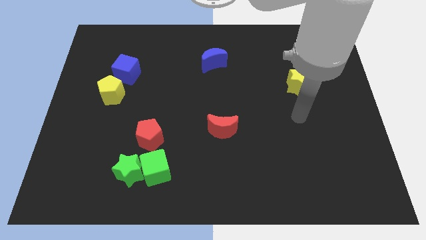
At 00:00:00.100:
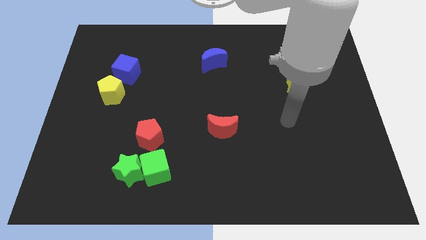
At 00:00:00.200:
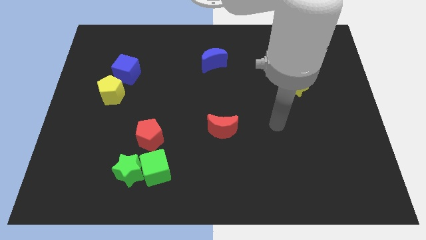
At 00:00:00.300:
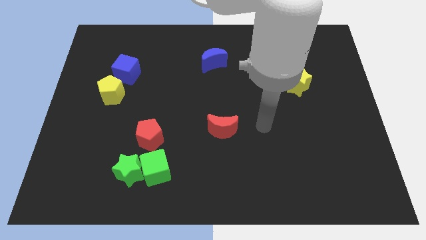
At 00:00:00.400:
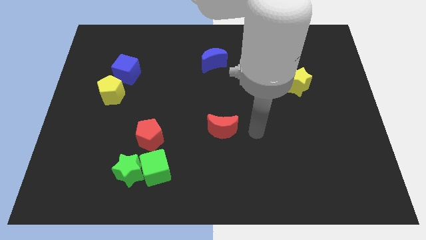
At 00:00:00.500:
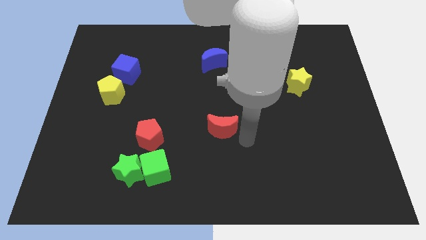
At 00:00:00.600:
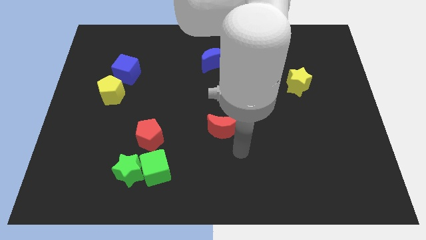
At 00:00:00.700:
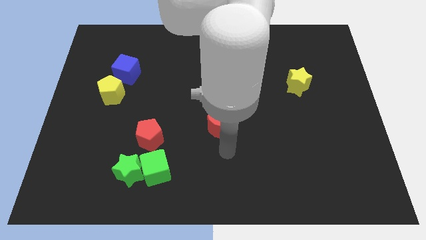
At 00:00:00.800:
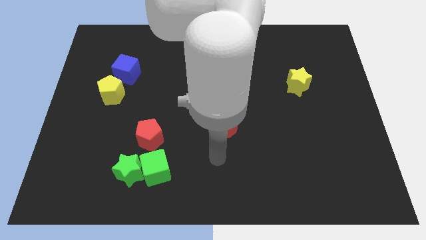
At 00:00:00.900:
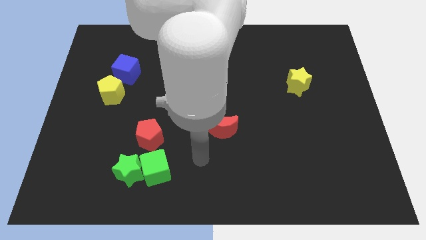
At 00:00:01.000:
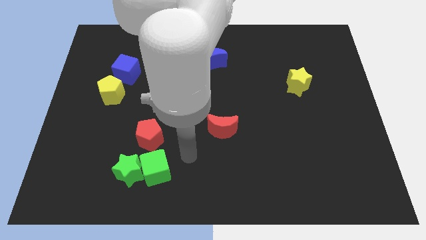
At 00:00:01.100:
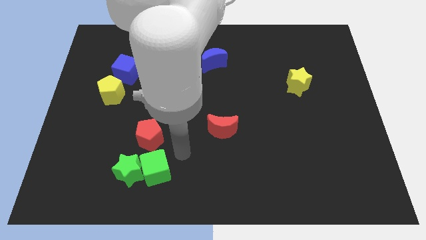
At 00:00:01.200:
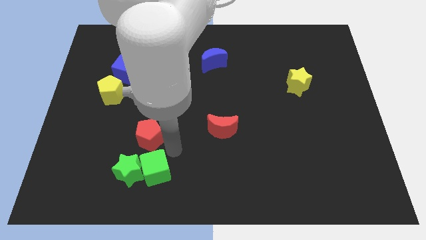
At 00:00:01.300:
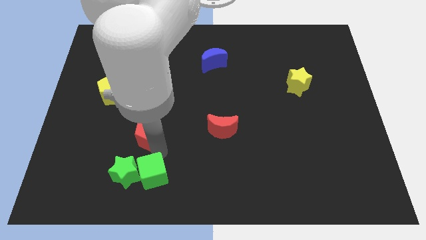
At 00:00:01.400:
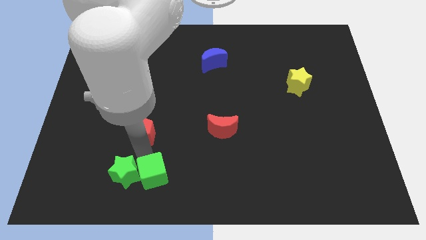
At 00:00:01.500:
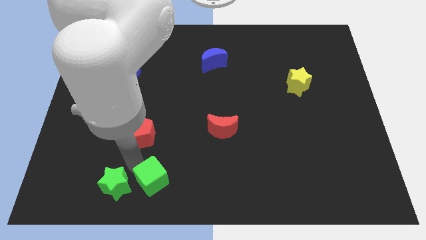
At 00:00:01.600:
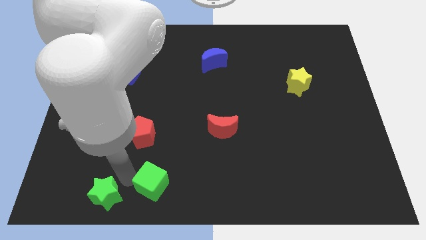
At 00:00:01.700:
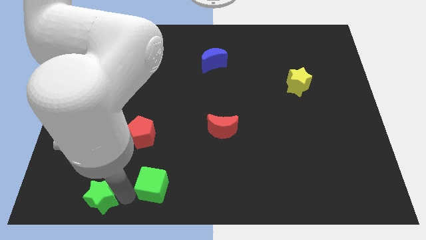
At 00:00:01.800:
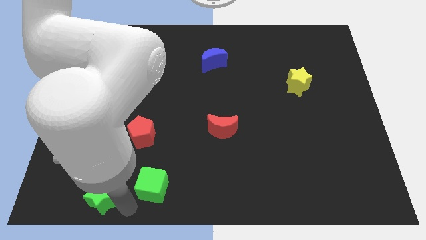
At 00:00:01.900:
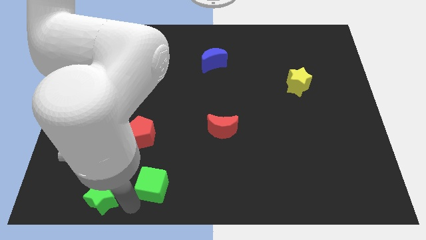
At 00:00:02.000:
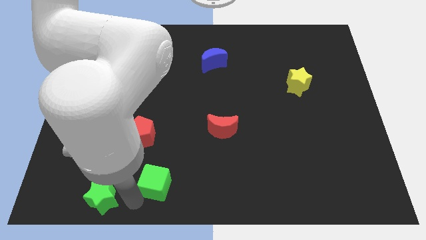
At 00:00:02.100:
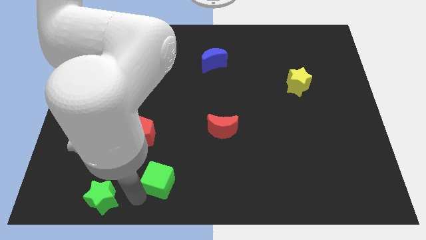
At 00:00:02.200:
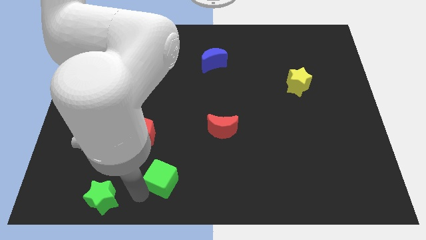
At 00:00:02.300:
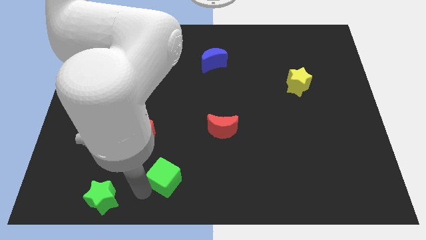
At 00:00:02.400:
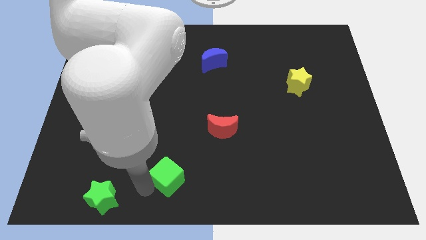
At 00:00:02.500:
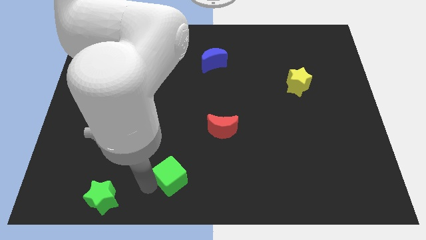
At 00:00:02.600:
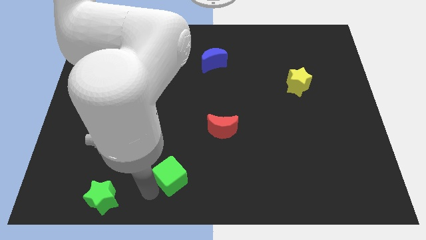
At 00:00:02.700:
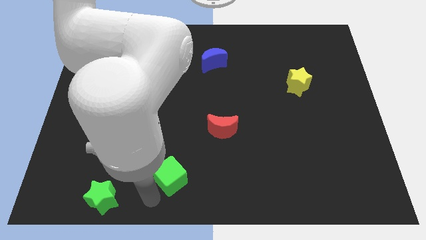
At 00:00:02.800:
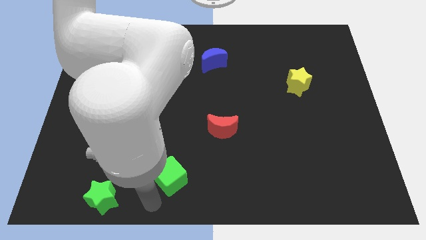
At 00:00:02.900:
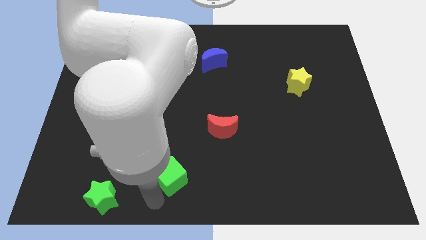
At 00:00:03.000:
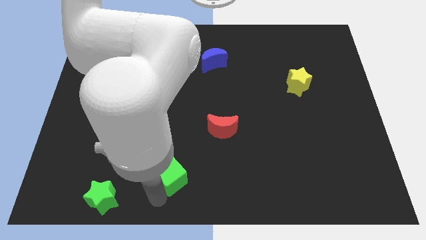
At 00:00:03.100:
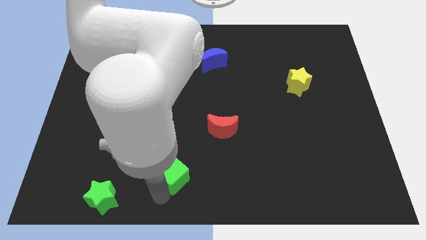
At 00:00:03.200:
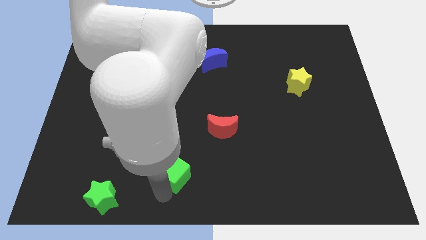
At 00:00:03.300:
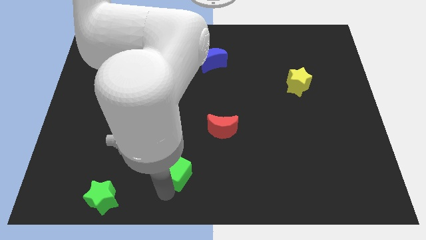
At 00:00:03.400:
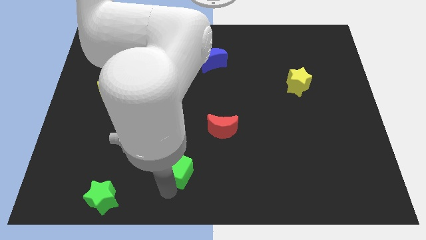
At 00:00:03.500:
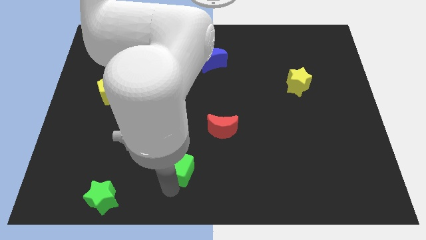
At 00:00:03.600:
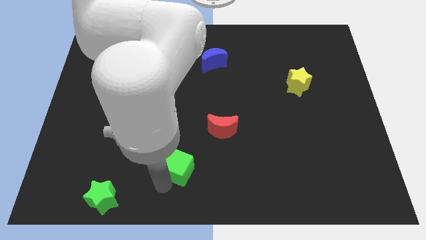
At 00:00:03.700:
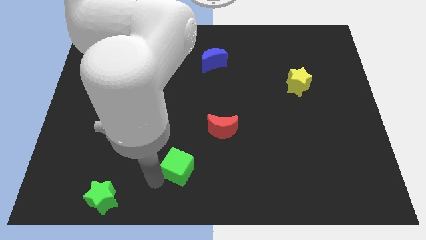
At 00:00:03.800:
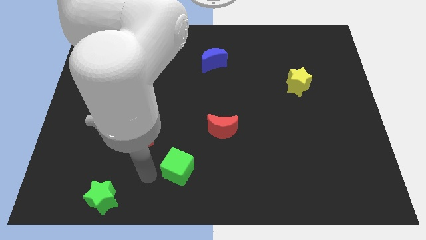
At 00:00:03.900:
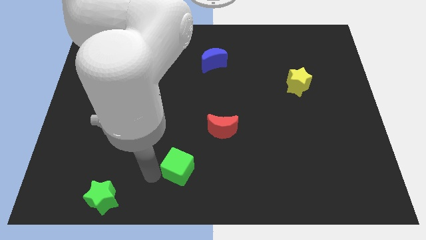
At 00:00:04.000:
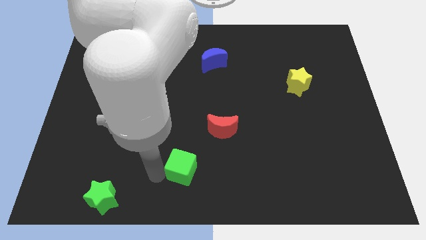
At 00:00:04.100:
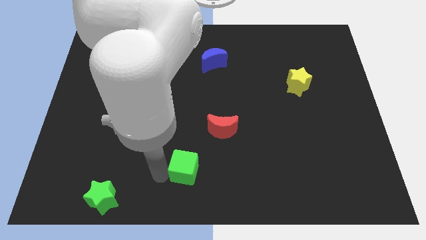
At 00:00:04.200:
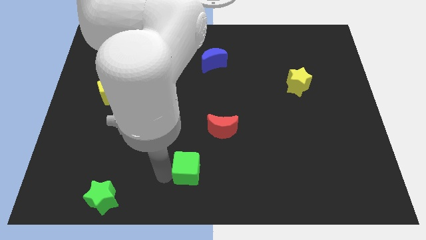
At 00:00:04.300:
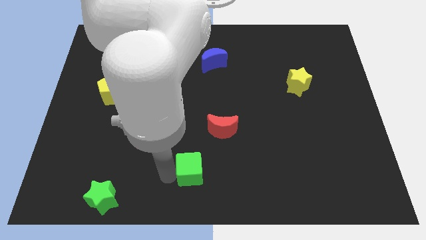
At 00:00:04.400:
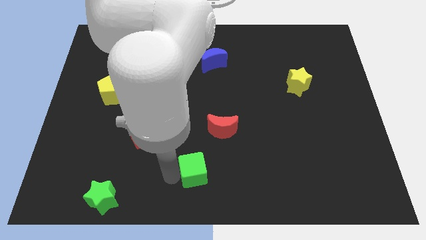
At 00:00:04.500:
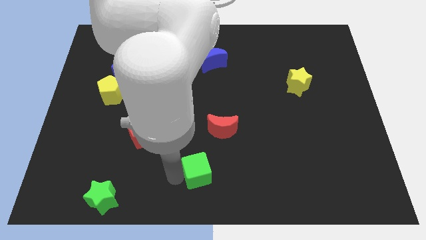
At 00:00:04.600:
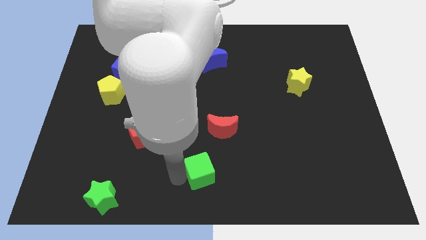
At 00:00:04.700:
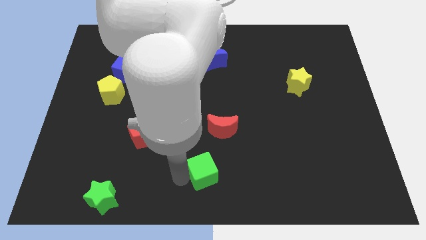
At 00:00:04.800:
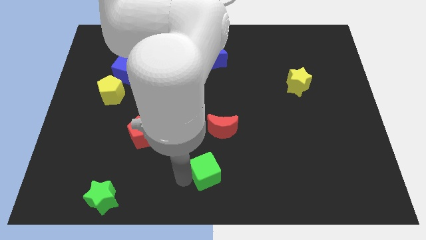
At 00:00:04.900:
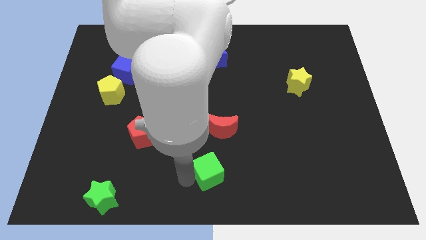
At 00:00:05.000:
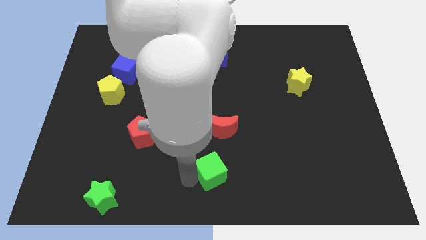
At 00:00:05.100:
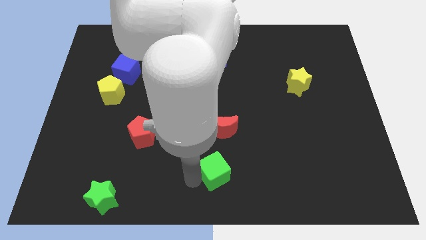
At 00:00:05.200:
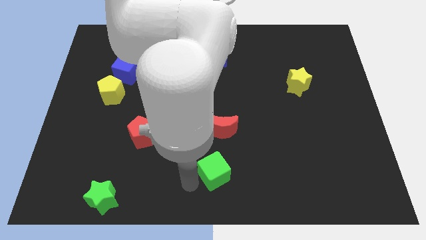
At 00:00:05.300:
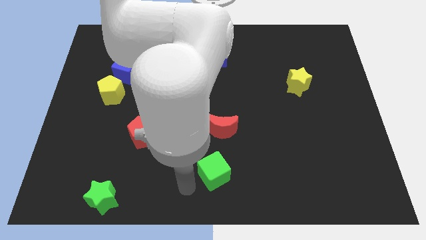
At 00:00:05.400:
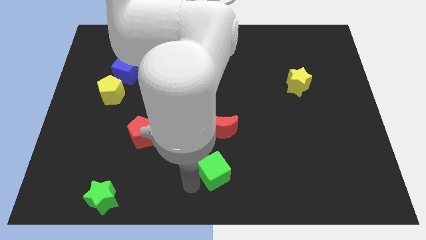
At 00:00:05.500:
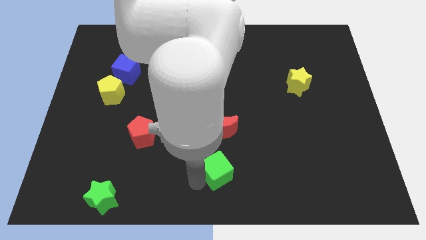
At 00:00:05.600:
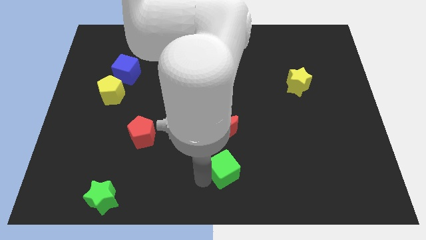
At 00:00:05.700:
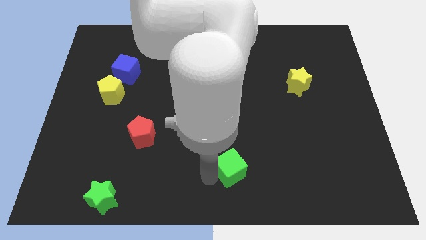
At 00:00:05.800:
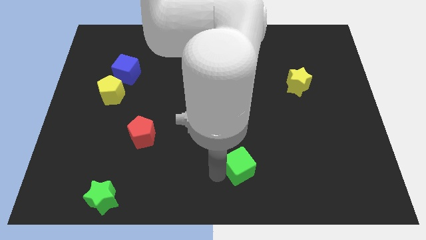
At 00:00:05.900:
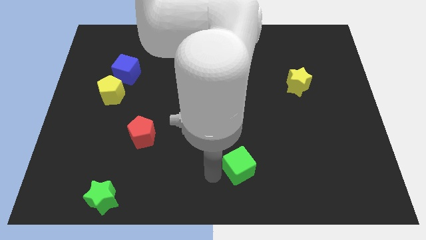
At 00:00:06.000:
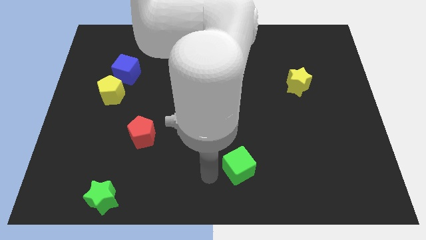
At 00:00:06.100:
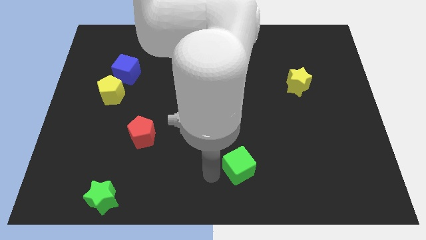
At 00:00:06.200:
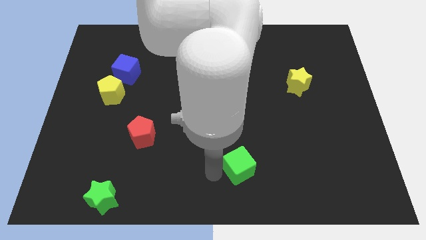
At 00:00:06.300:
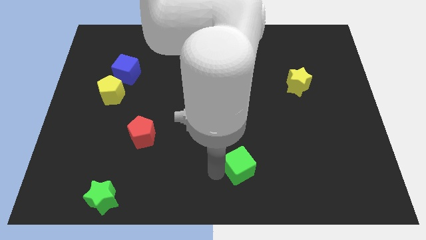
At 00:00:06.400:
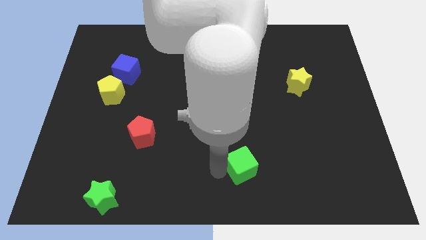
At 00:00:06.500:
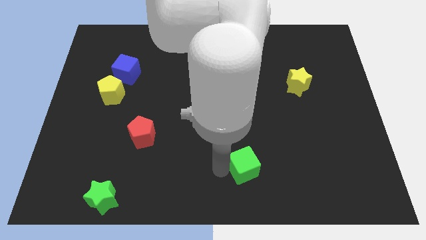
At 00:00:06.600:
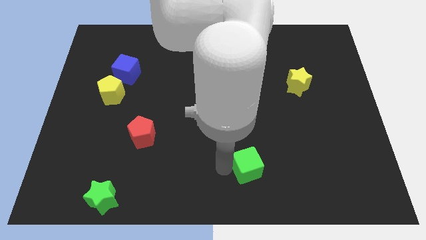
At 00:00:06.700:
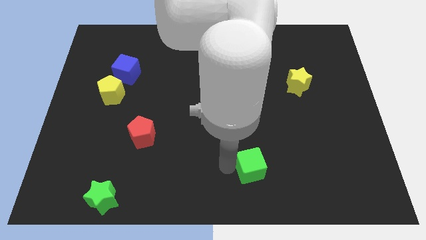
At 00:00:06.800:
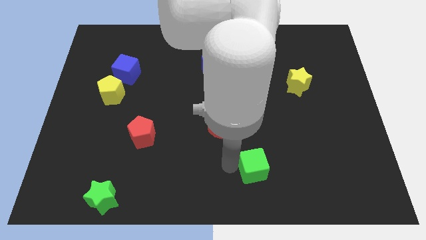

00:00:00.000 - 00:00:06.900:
slide the green cube to the right

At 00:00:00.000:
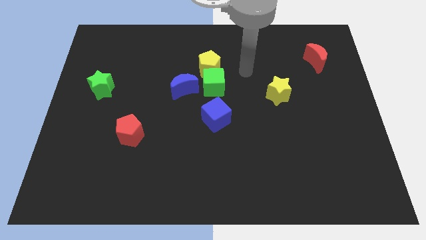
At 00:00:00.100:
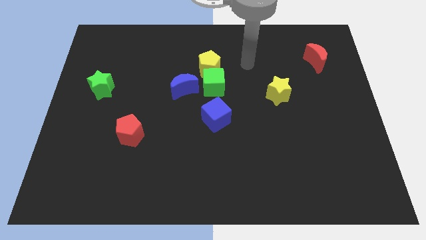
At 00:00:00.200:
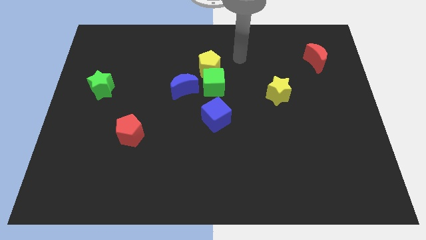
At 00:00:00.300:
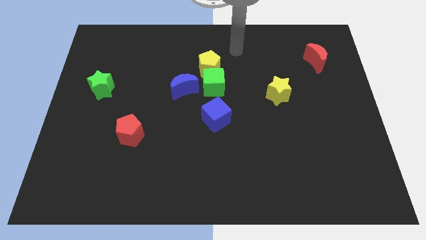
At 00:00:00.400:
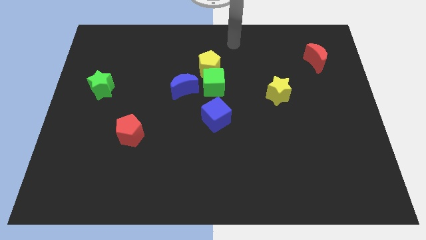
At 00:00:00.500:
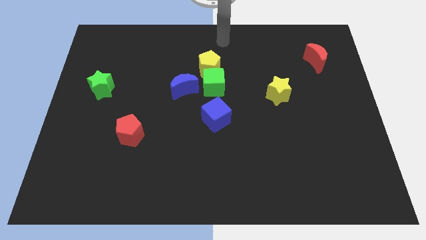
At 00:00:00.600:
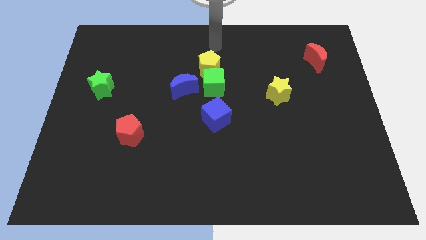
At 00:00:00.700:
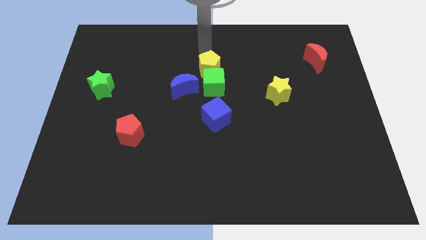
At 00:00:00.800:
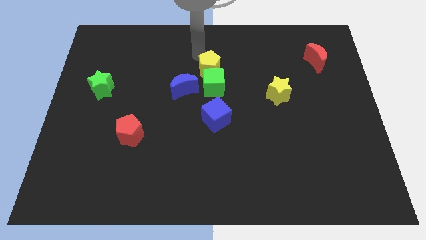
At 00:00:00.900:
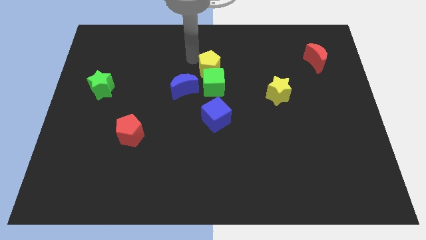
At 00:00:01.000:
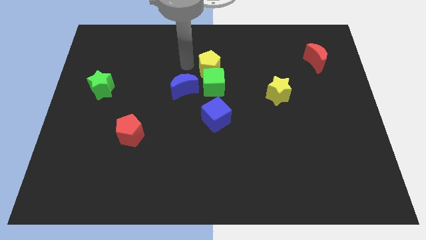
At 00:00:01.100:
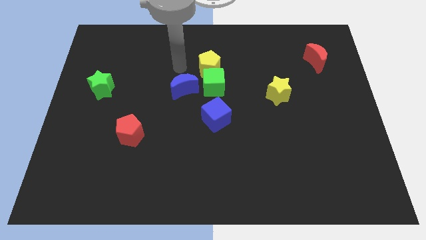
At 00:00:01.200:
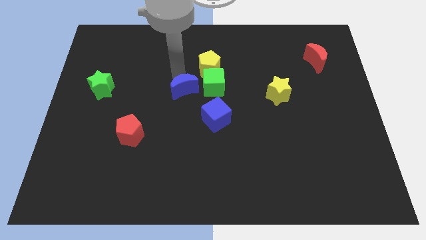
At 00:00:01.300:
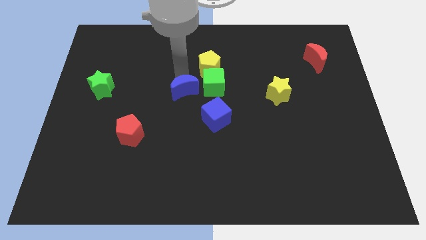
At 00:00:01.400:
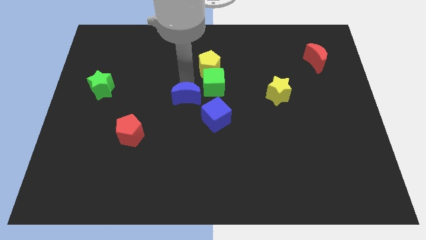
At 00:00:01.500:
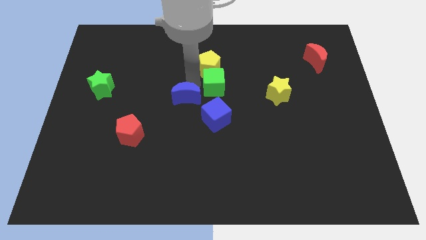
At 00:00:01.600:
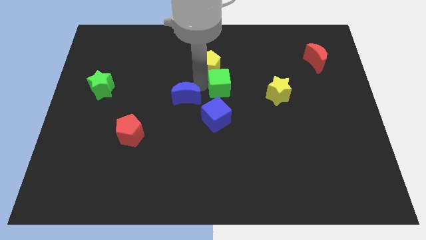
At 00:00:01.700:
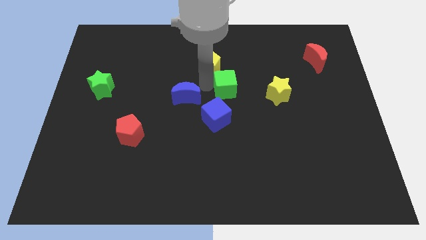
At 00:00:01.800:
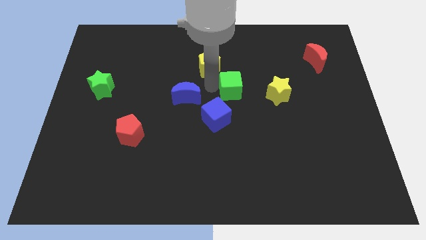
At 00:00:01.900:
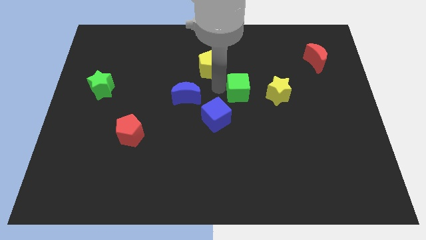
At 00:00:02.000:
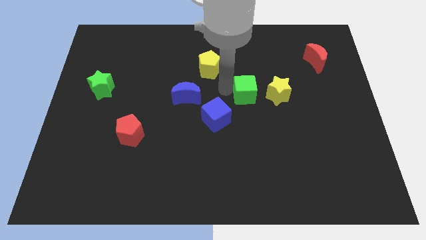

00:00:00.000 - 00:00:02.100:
move the green cube right a little
